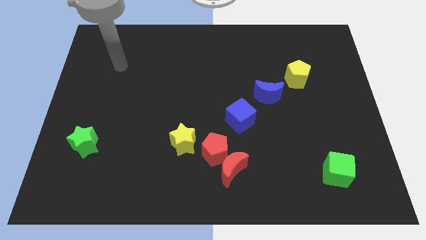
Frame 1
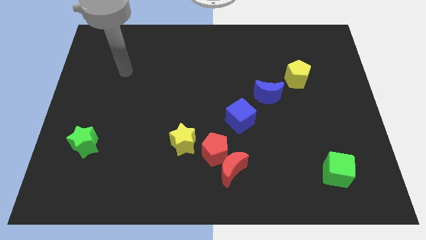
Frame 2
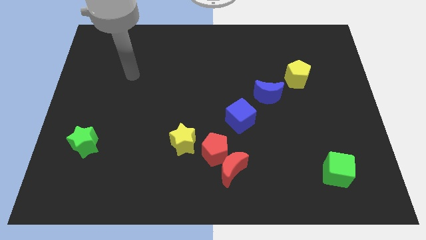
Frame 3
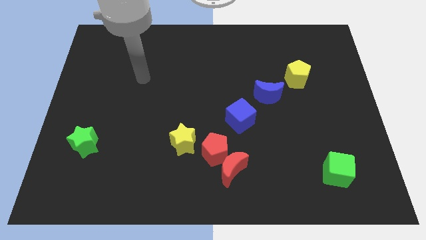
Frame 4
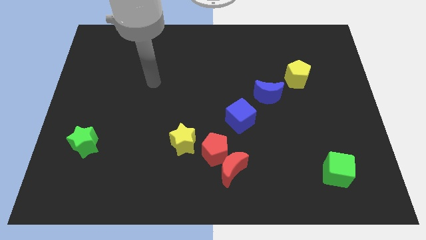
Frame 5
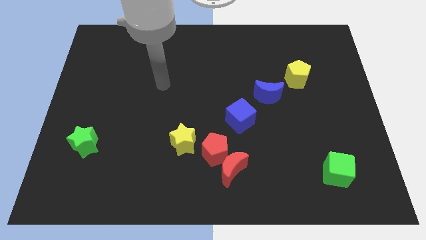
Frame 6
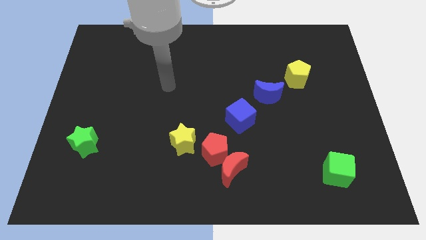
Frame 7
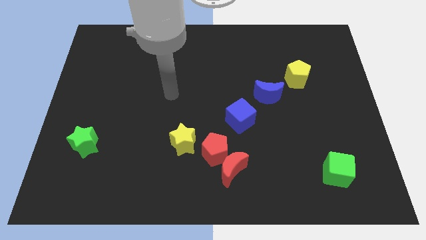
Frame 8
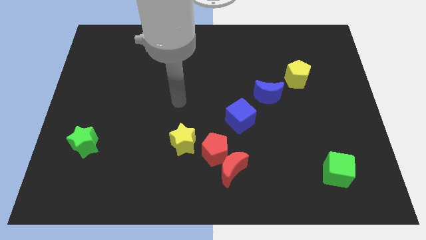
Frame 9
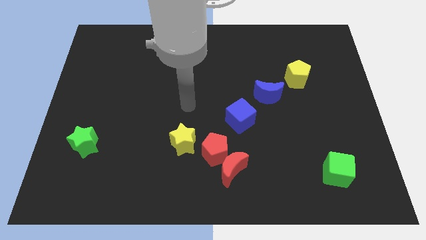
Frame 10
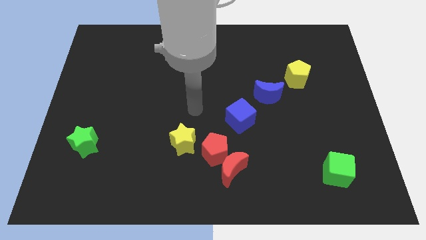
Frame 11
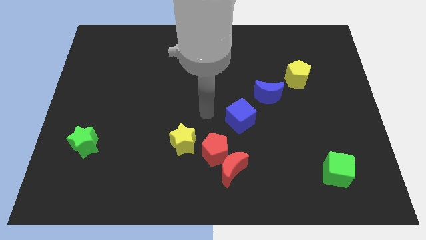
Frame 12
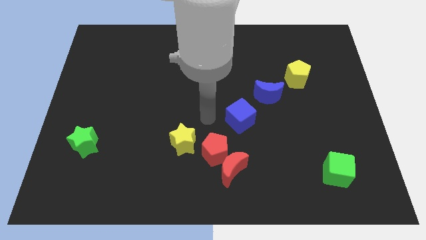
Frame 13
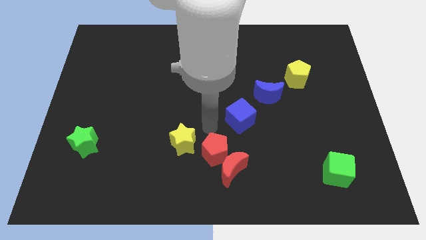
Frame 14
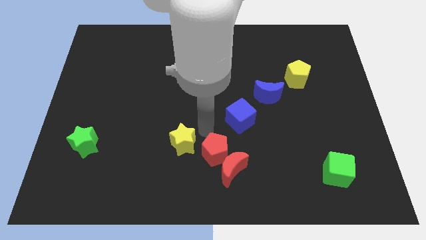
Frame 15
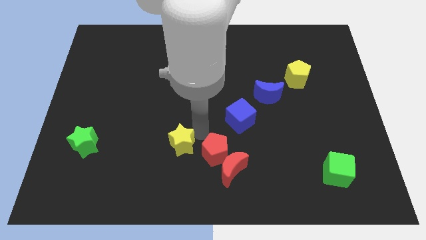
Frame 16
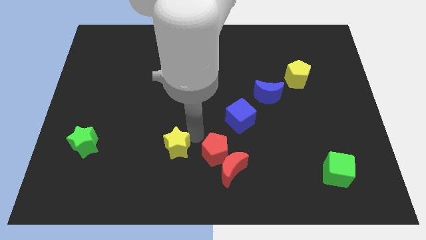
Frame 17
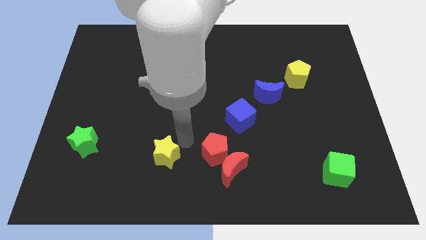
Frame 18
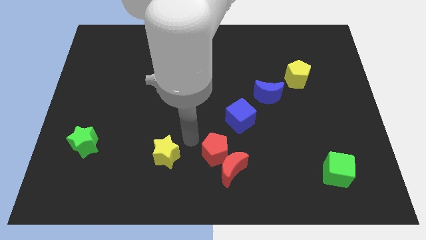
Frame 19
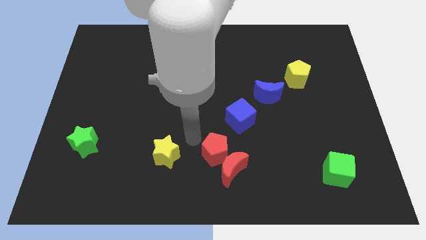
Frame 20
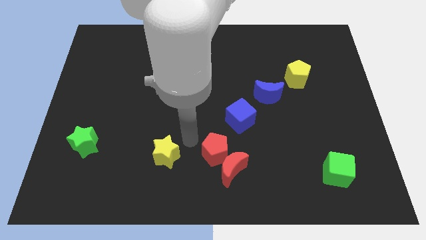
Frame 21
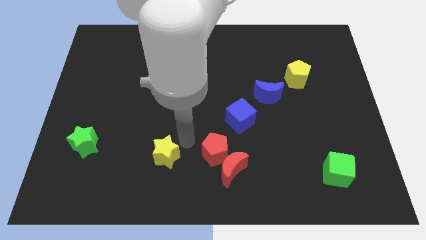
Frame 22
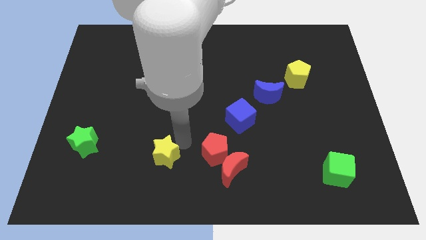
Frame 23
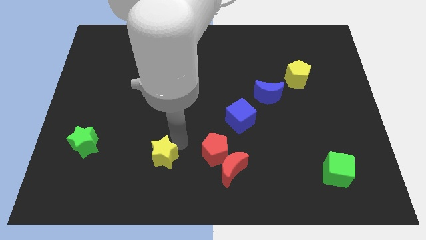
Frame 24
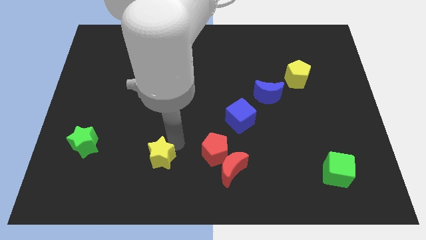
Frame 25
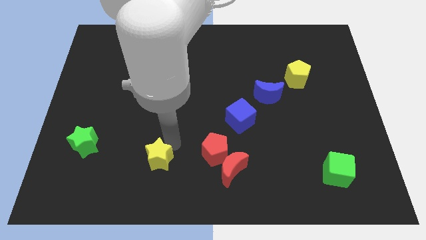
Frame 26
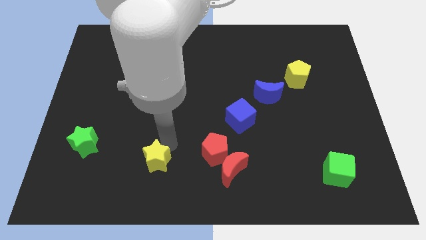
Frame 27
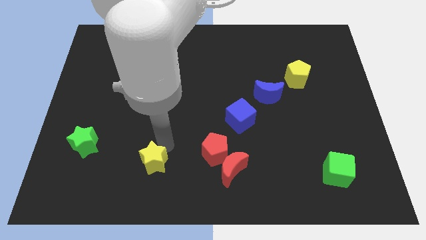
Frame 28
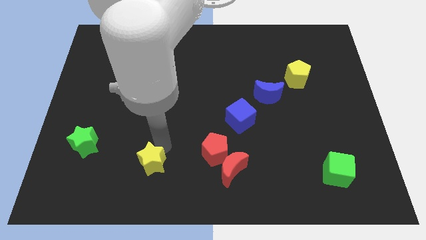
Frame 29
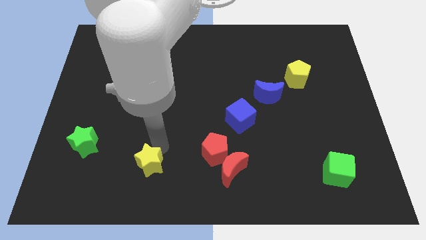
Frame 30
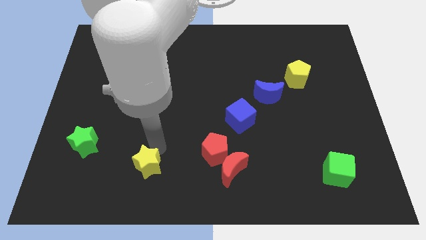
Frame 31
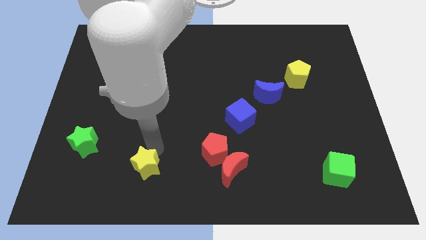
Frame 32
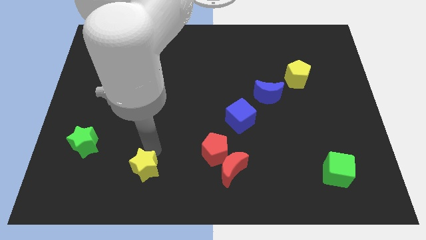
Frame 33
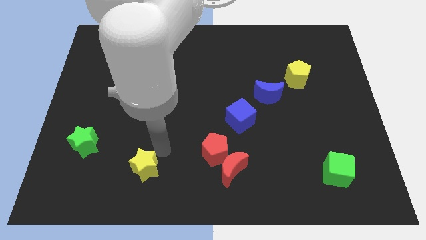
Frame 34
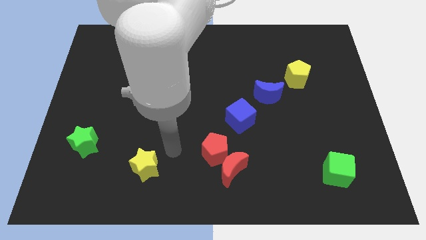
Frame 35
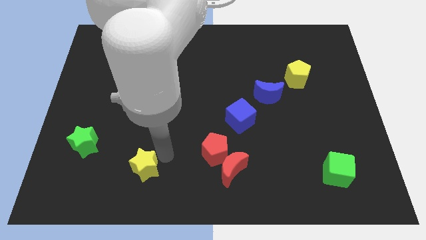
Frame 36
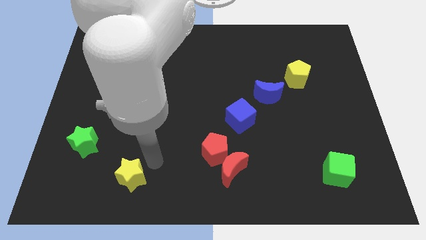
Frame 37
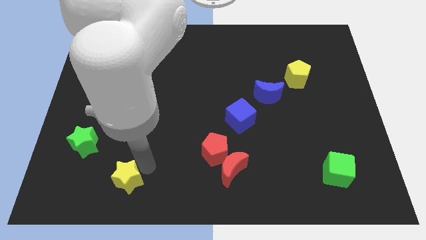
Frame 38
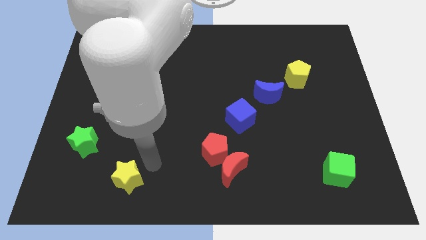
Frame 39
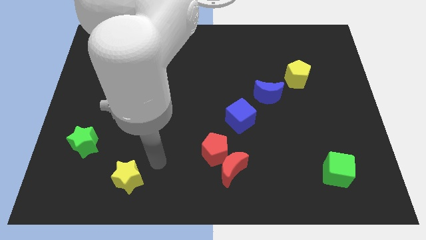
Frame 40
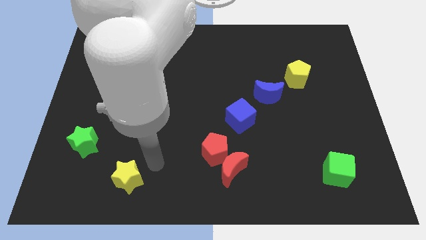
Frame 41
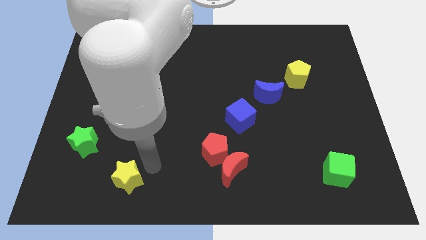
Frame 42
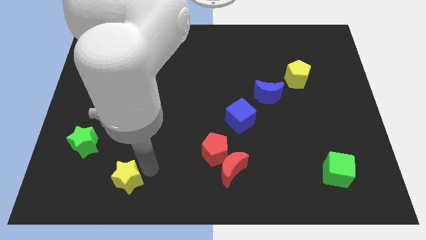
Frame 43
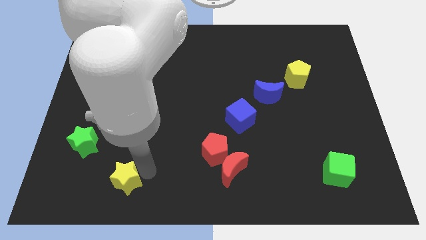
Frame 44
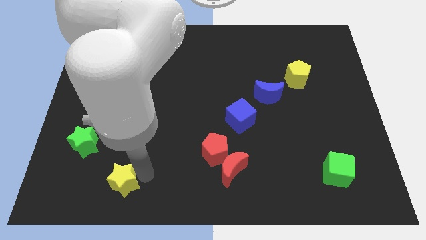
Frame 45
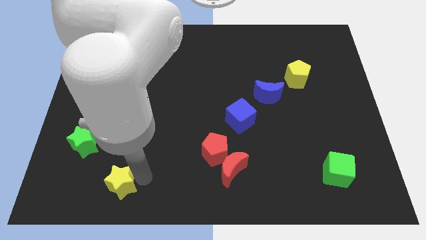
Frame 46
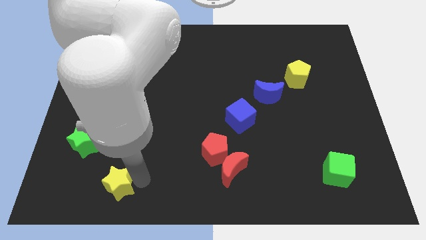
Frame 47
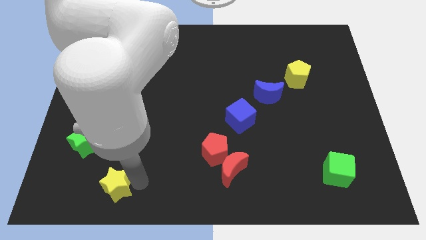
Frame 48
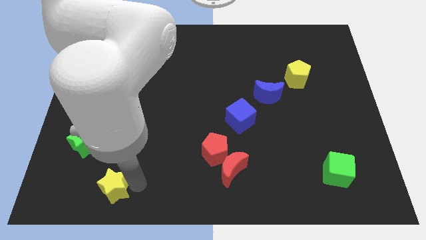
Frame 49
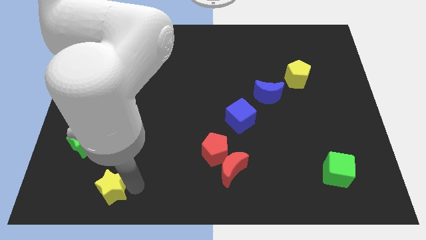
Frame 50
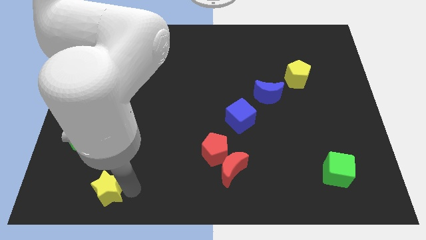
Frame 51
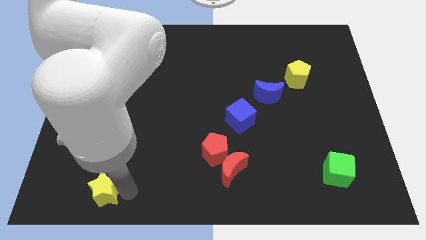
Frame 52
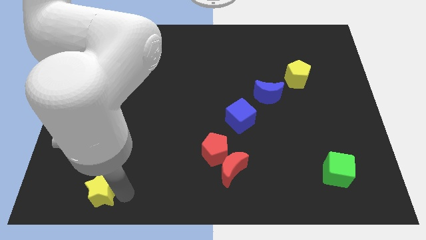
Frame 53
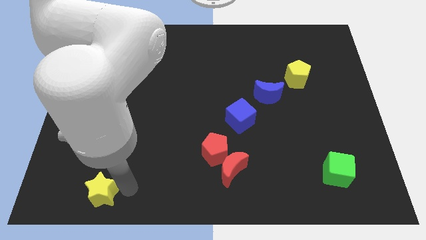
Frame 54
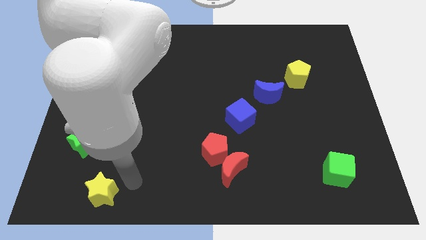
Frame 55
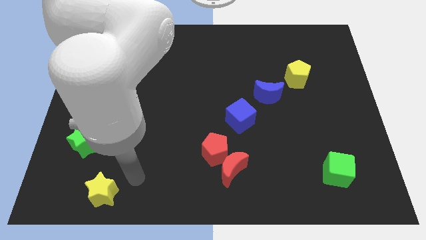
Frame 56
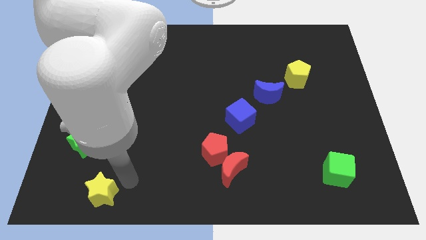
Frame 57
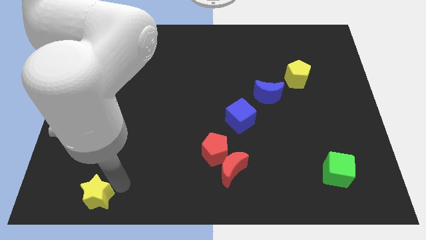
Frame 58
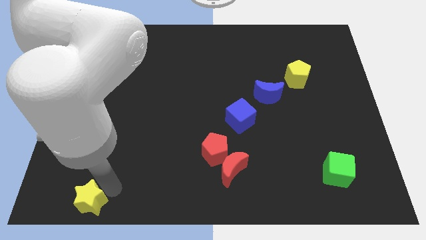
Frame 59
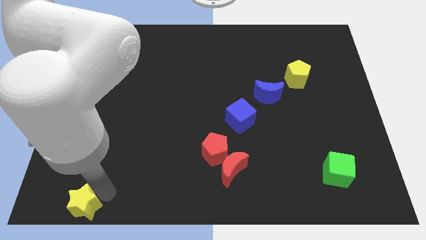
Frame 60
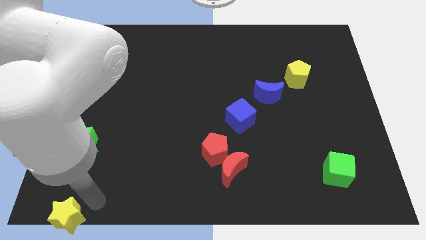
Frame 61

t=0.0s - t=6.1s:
put the yellow star to the bottom left of the board

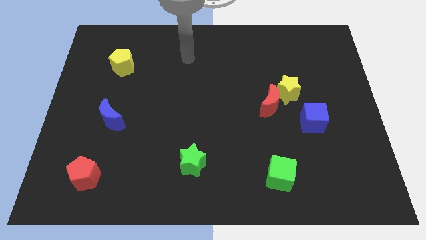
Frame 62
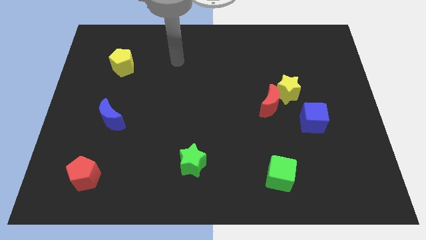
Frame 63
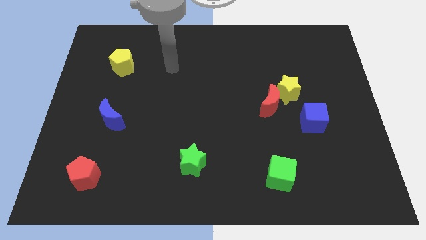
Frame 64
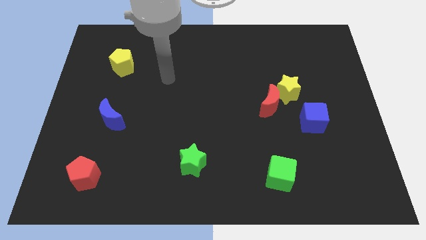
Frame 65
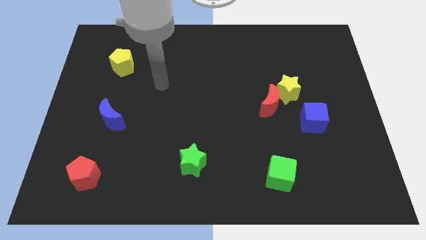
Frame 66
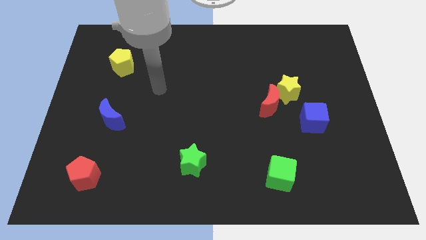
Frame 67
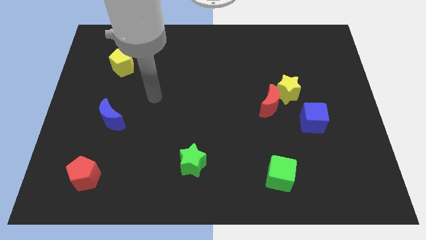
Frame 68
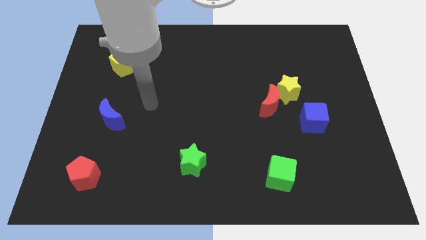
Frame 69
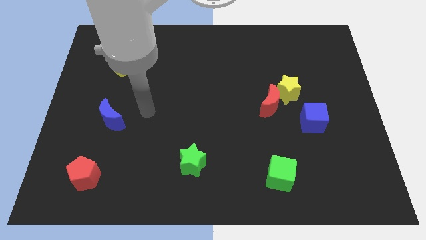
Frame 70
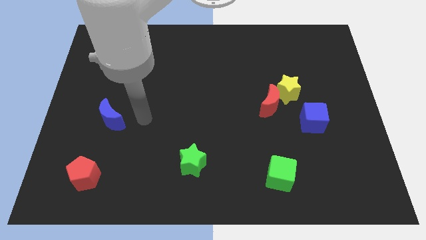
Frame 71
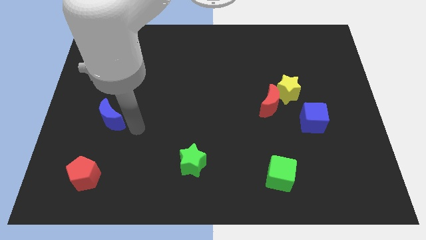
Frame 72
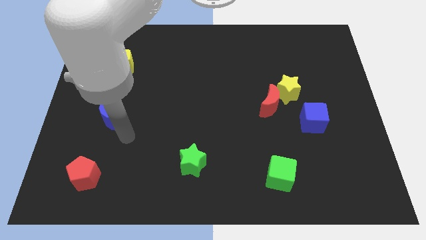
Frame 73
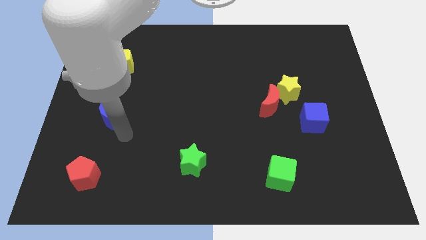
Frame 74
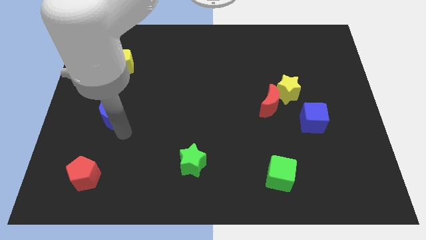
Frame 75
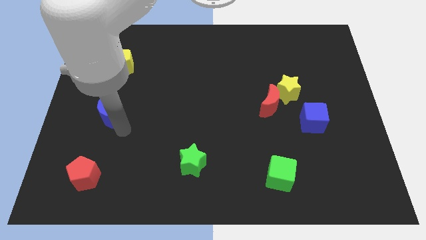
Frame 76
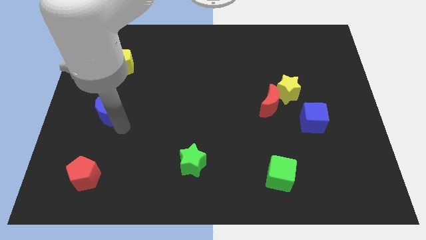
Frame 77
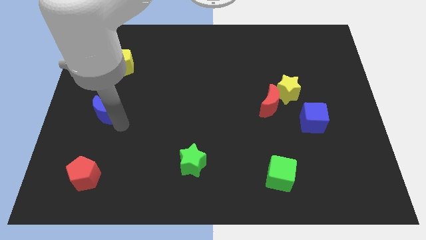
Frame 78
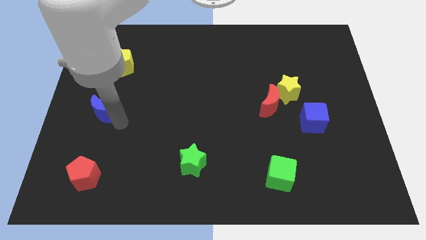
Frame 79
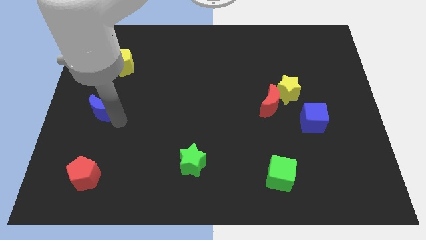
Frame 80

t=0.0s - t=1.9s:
put the blue moon to the center left

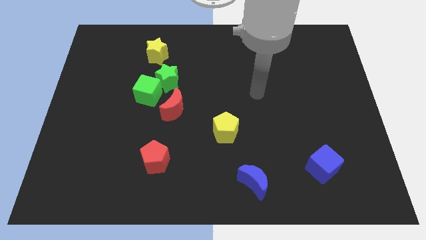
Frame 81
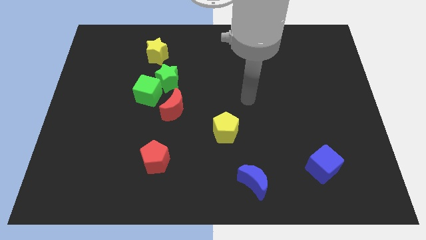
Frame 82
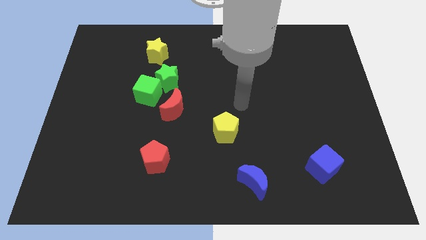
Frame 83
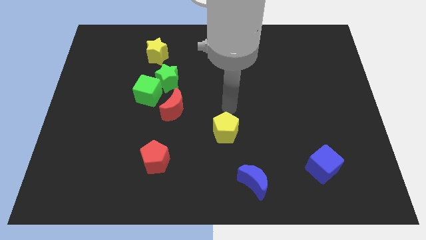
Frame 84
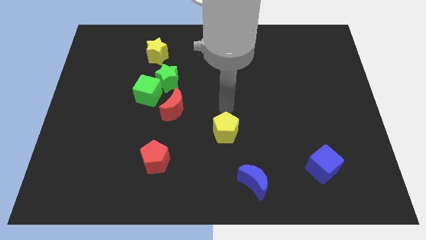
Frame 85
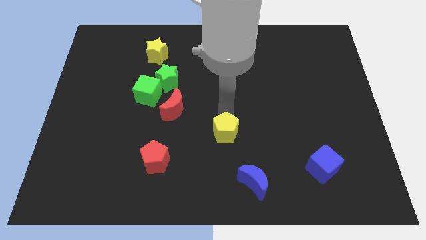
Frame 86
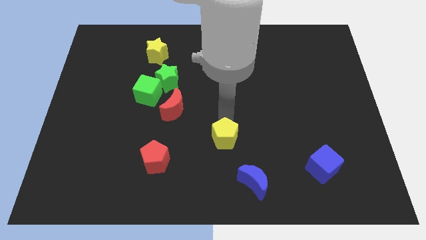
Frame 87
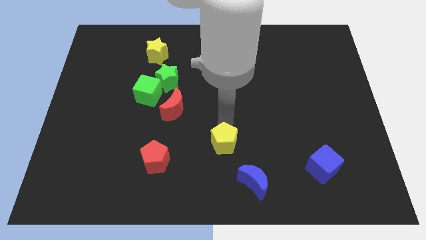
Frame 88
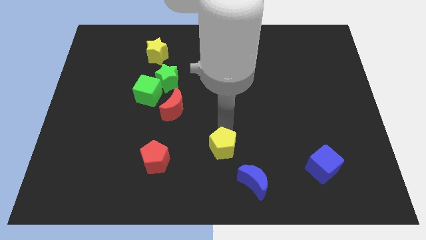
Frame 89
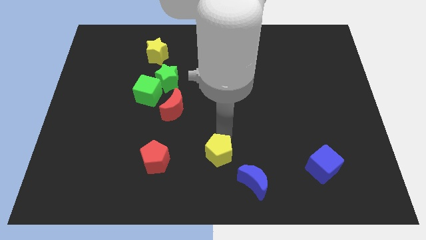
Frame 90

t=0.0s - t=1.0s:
slide the yellow pentagon to the bottom side
